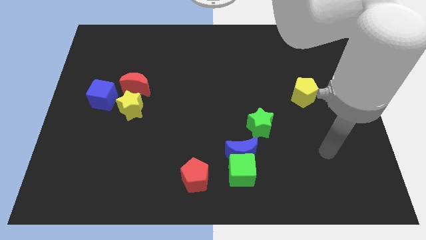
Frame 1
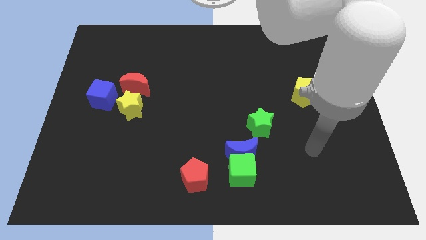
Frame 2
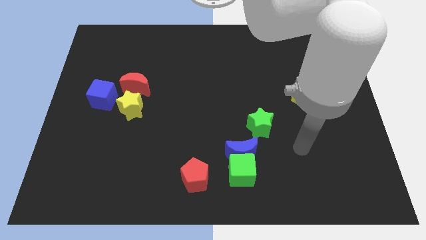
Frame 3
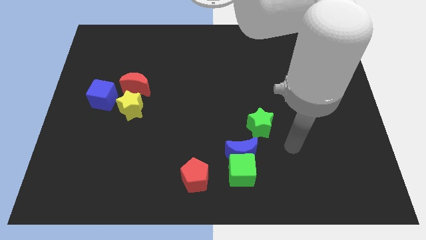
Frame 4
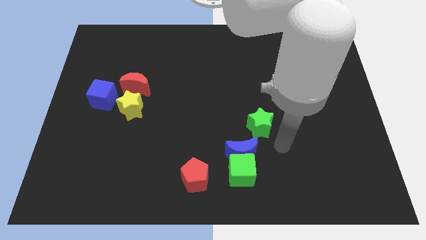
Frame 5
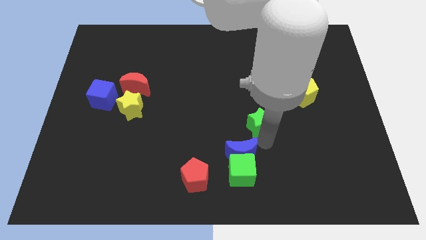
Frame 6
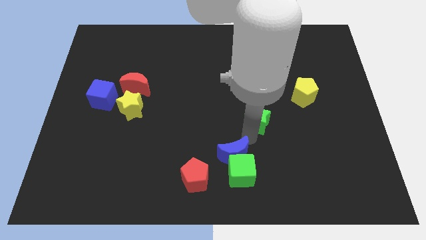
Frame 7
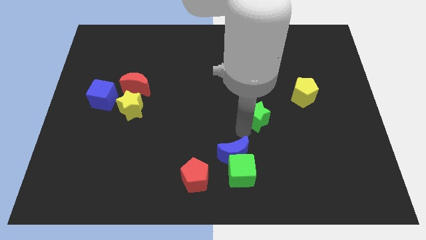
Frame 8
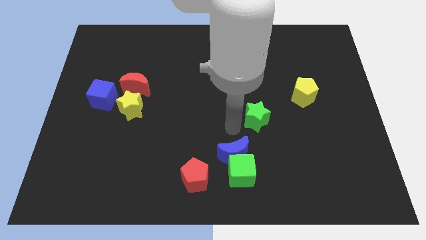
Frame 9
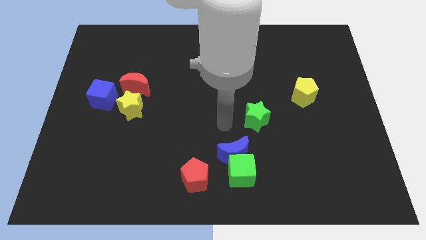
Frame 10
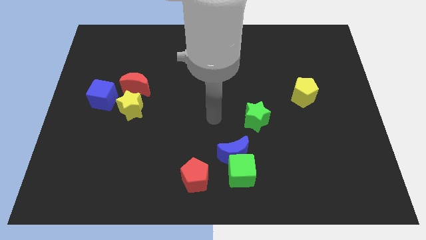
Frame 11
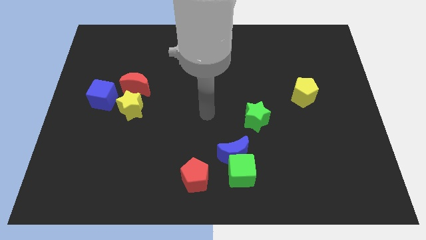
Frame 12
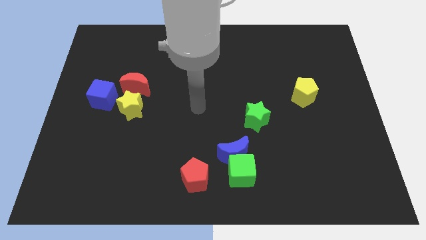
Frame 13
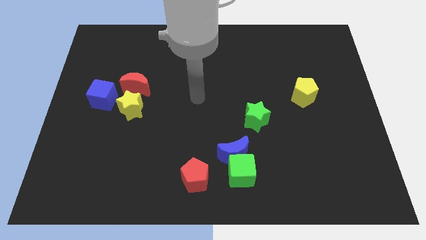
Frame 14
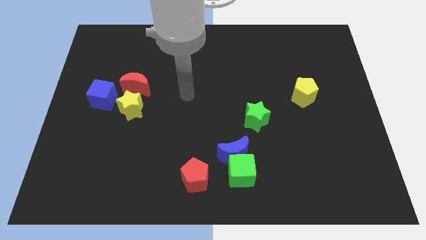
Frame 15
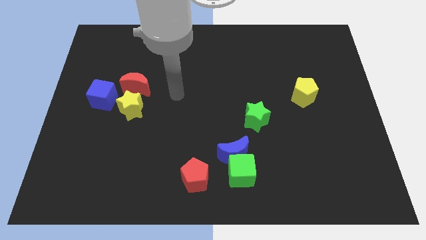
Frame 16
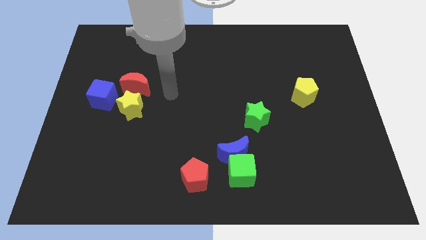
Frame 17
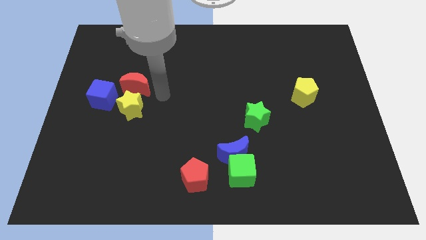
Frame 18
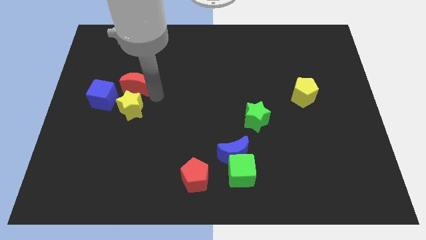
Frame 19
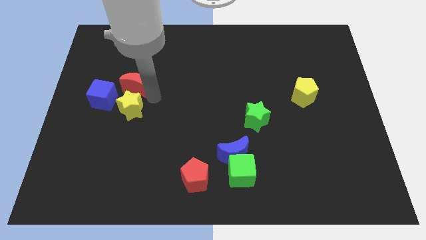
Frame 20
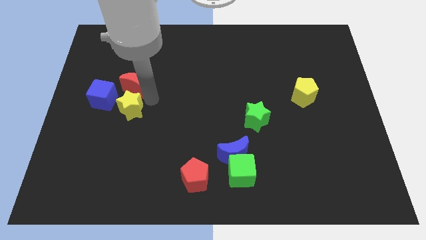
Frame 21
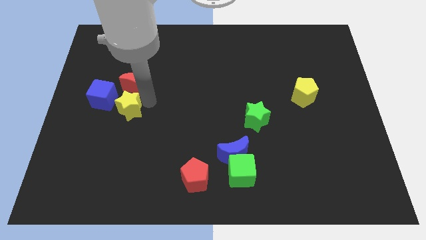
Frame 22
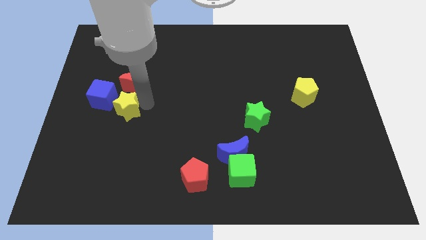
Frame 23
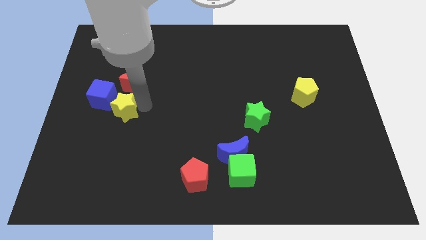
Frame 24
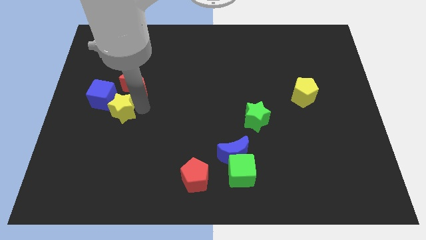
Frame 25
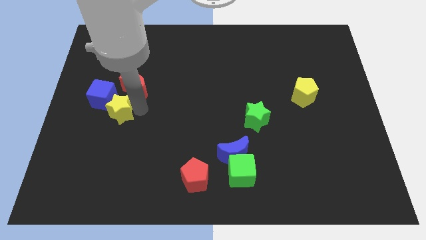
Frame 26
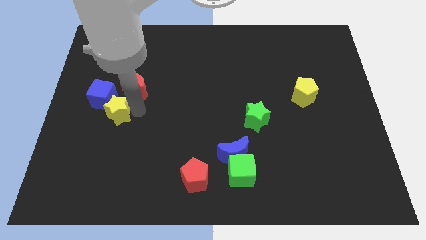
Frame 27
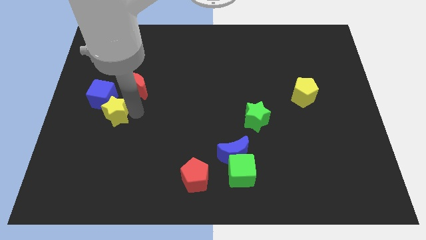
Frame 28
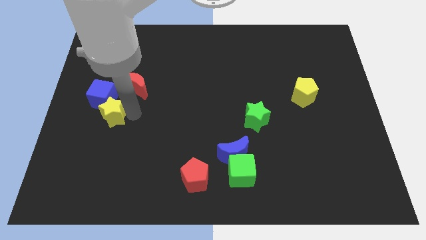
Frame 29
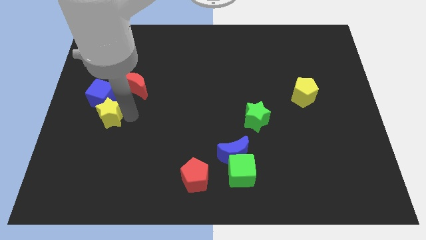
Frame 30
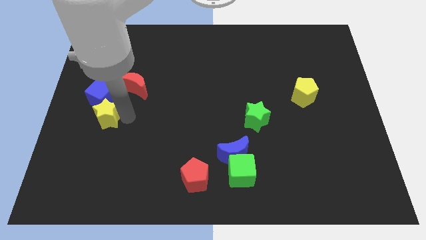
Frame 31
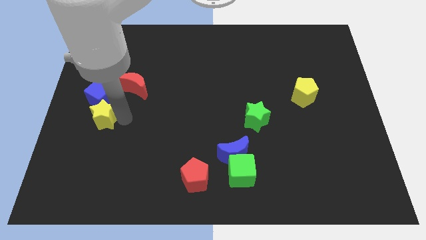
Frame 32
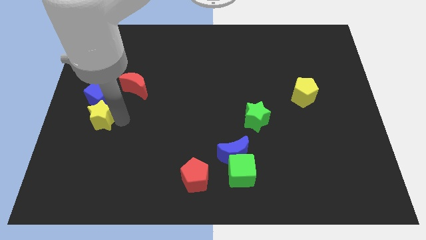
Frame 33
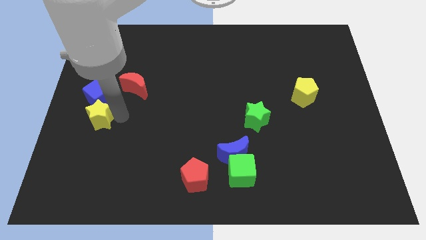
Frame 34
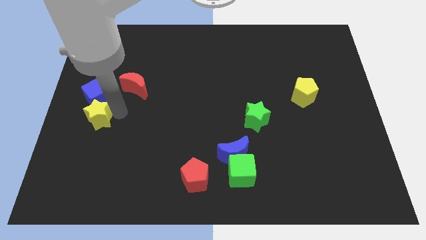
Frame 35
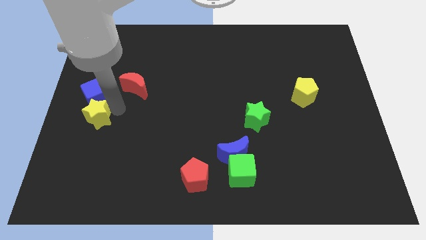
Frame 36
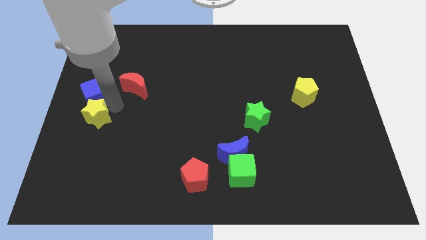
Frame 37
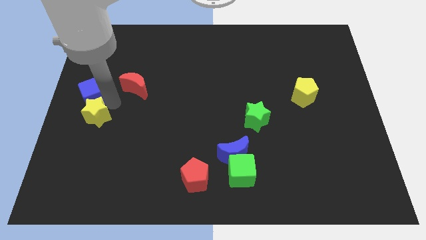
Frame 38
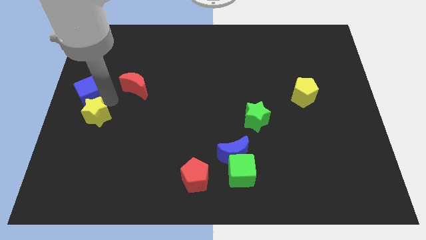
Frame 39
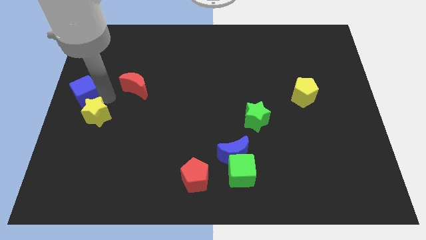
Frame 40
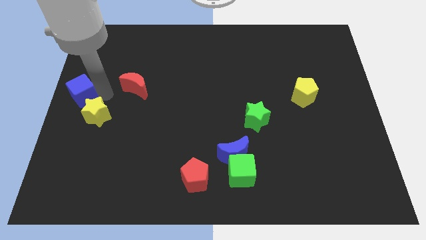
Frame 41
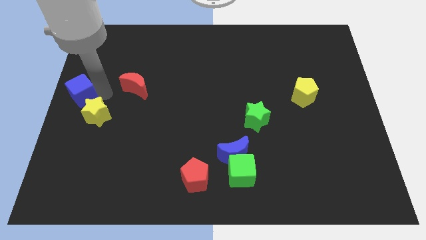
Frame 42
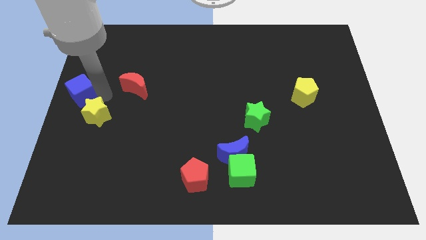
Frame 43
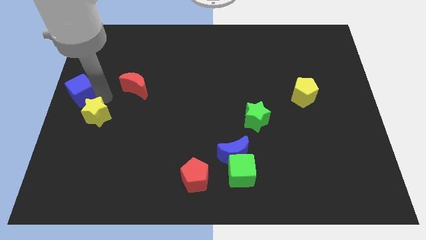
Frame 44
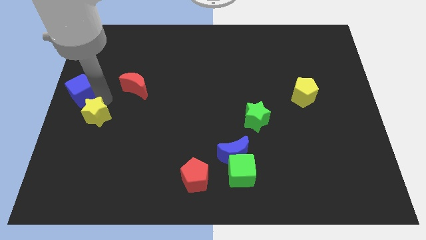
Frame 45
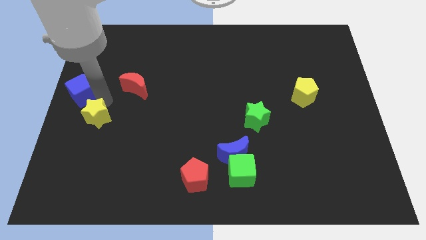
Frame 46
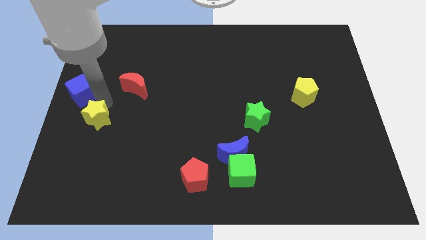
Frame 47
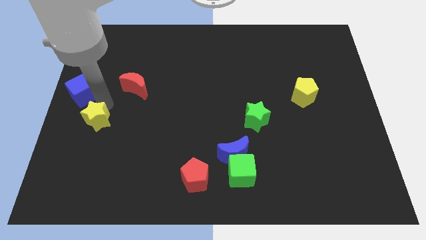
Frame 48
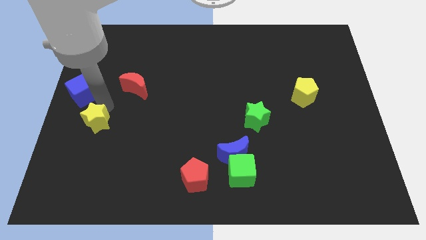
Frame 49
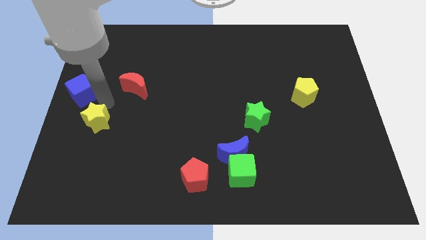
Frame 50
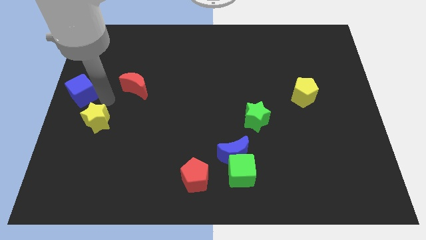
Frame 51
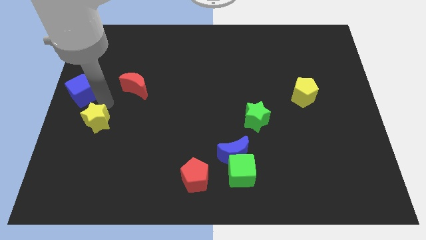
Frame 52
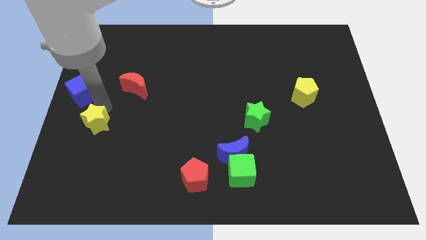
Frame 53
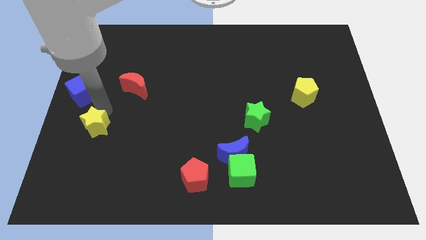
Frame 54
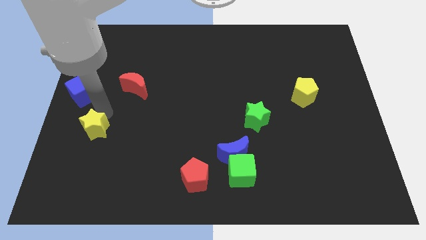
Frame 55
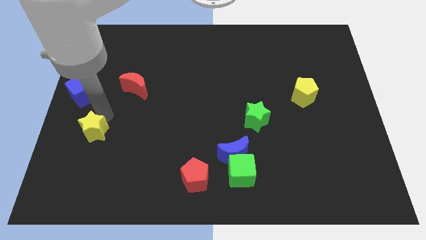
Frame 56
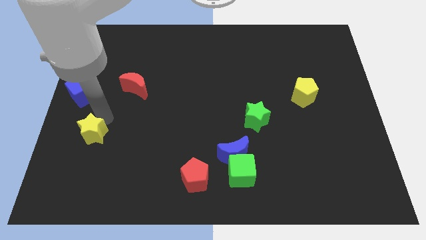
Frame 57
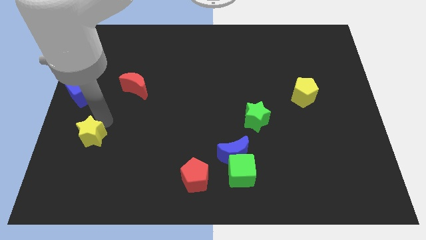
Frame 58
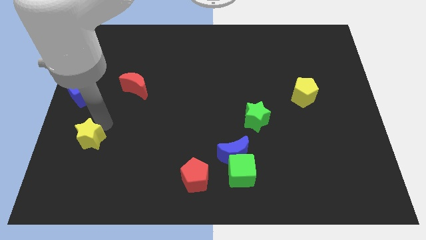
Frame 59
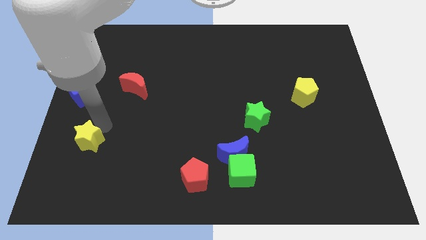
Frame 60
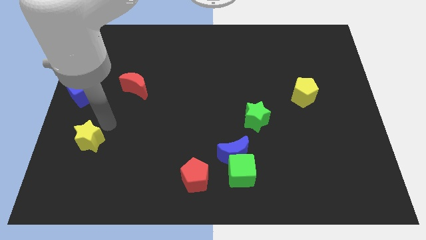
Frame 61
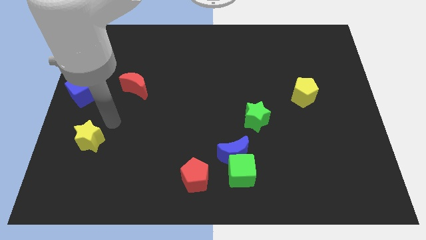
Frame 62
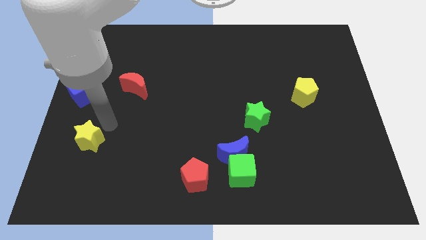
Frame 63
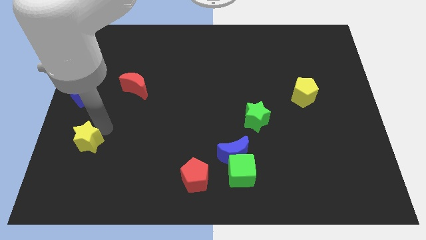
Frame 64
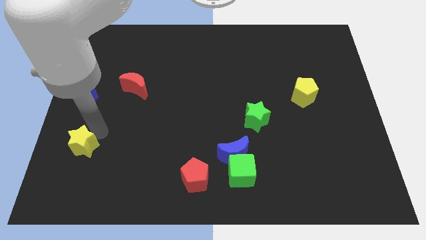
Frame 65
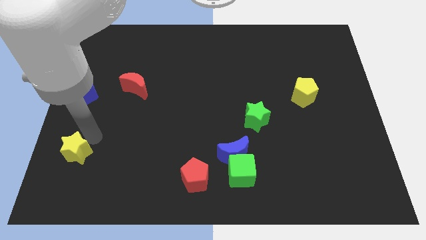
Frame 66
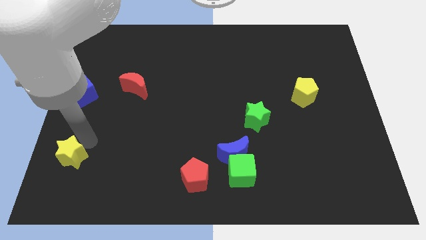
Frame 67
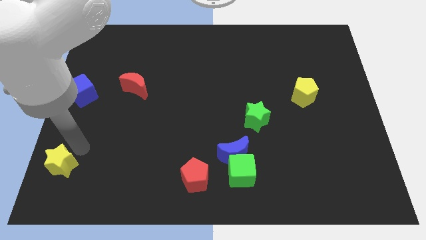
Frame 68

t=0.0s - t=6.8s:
slide the yellow star to the bottom left of the board
